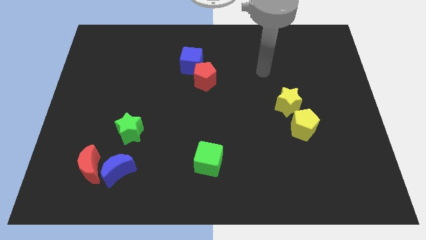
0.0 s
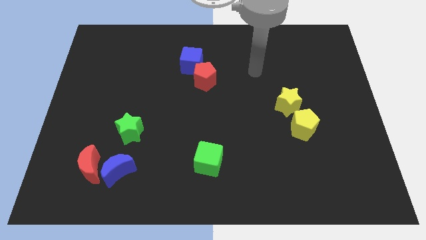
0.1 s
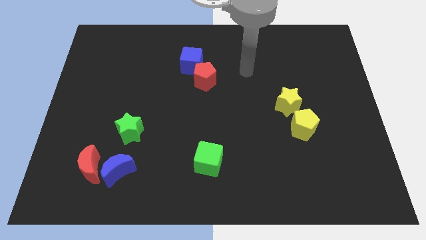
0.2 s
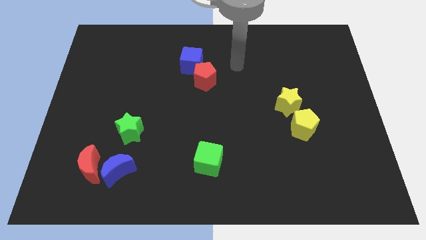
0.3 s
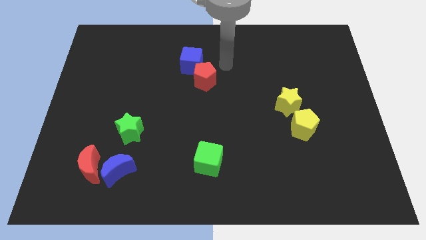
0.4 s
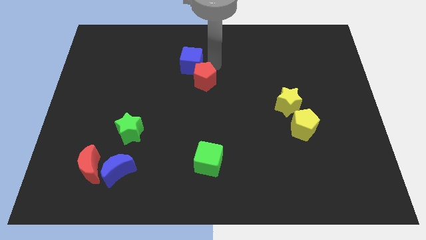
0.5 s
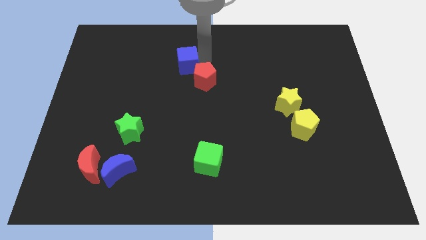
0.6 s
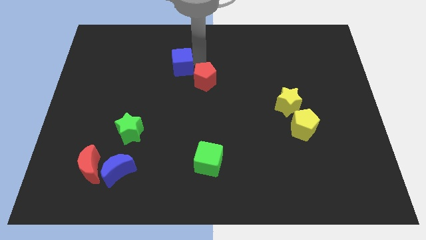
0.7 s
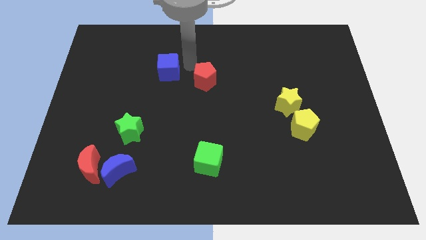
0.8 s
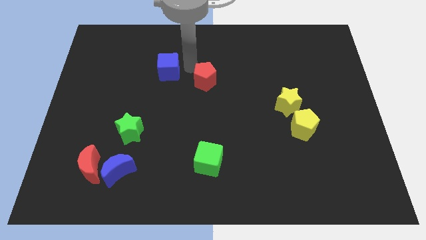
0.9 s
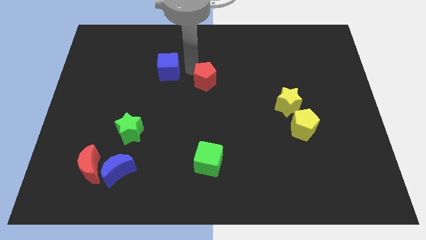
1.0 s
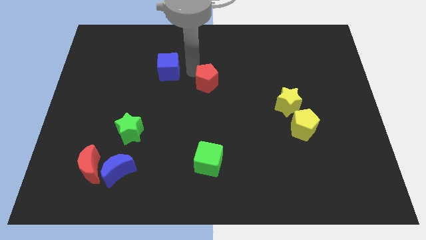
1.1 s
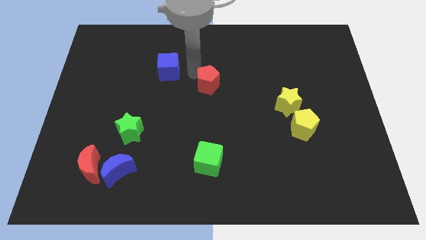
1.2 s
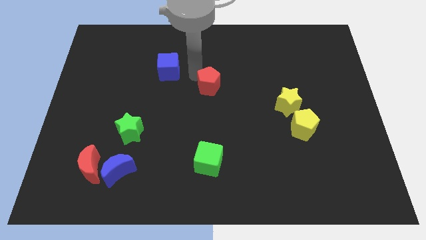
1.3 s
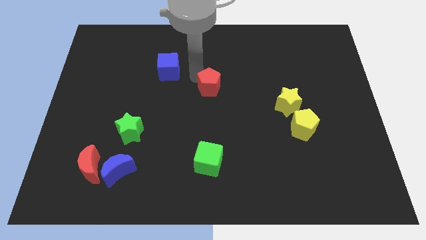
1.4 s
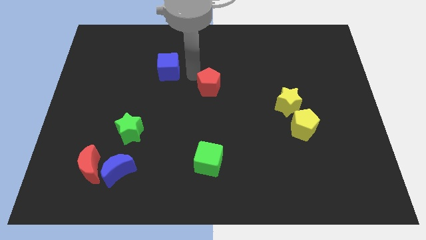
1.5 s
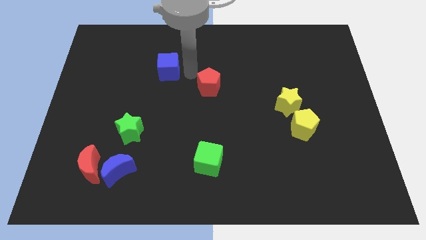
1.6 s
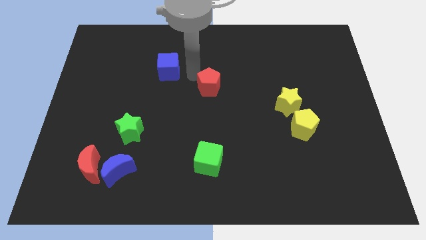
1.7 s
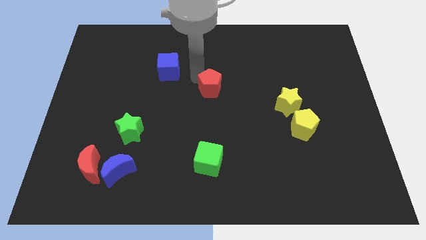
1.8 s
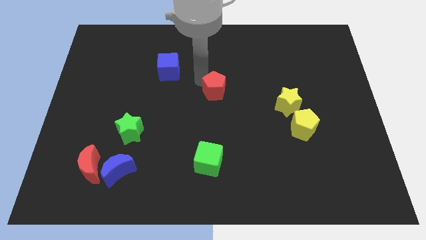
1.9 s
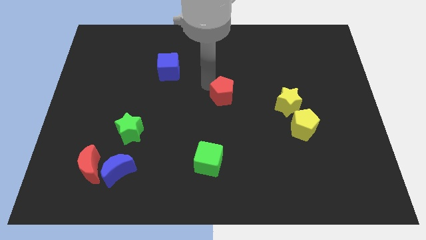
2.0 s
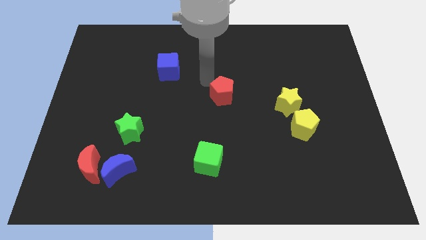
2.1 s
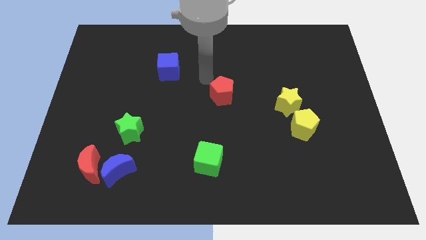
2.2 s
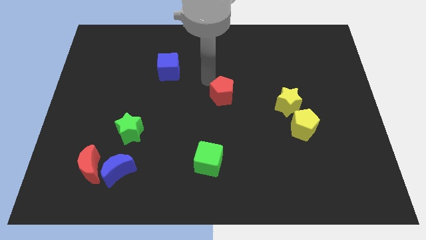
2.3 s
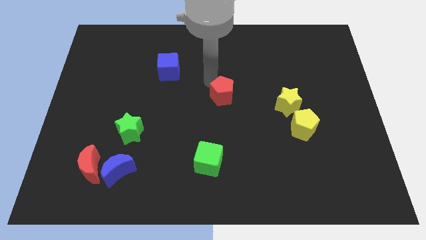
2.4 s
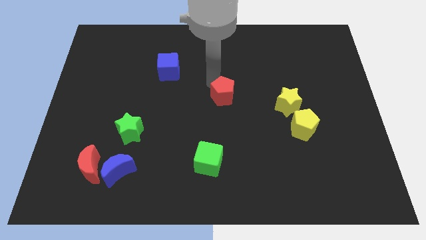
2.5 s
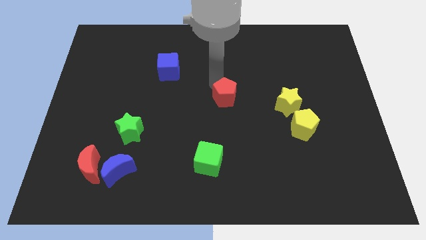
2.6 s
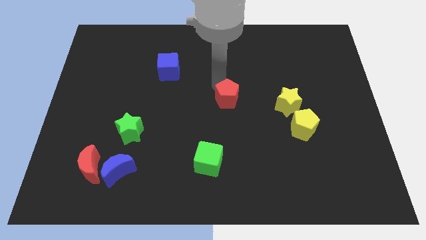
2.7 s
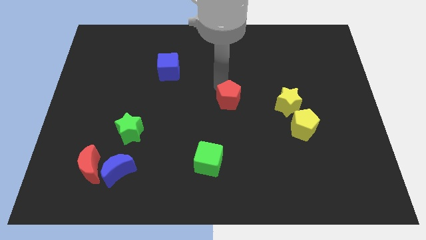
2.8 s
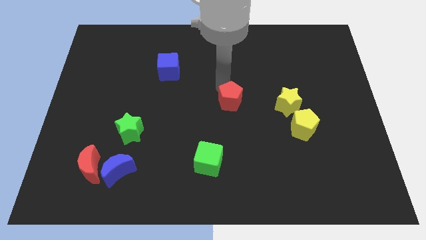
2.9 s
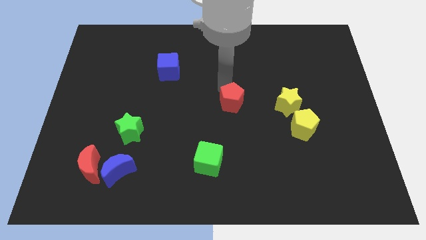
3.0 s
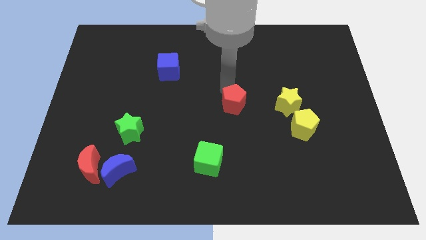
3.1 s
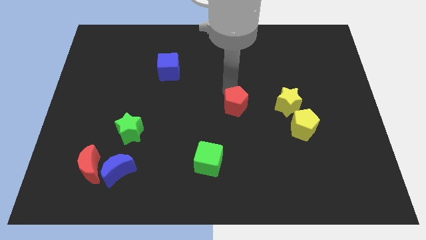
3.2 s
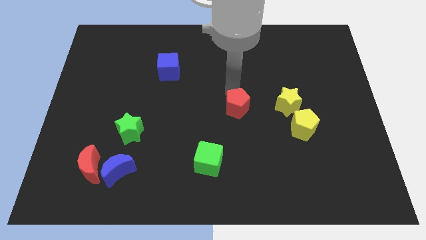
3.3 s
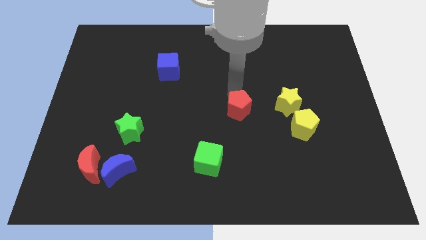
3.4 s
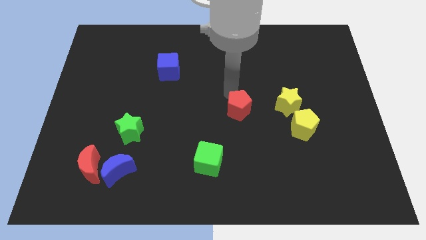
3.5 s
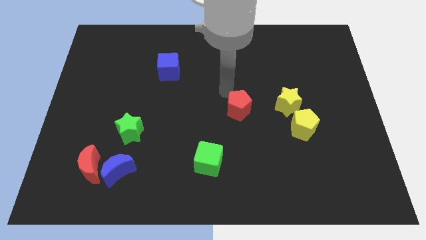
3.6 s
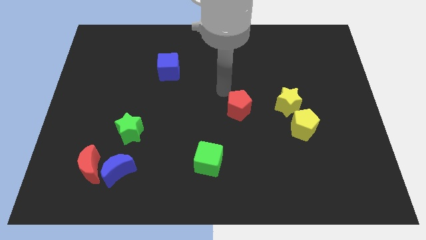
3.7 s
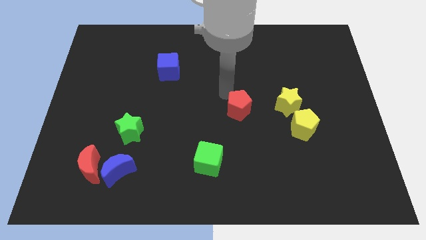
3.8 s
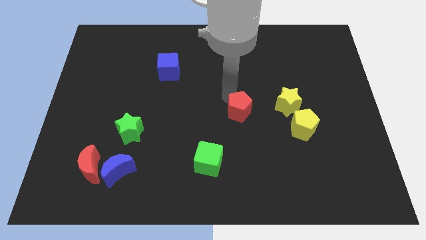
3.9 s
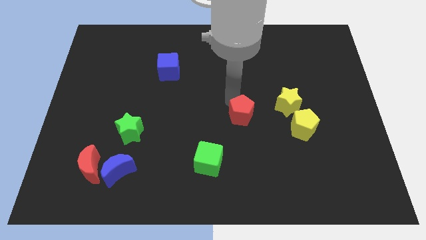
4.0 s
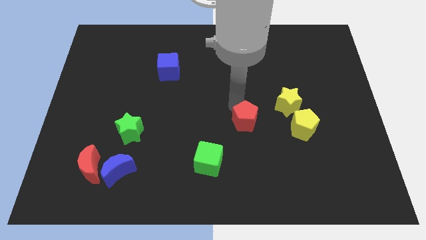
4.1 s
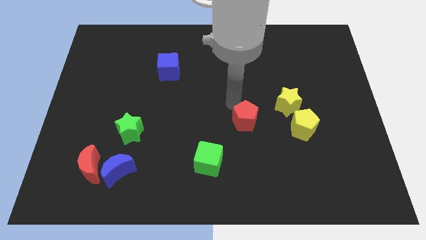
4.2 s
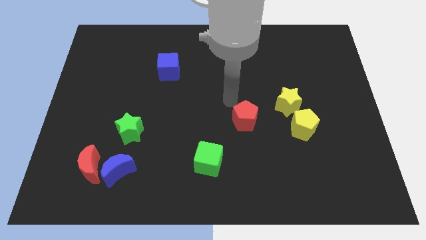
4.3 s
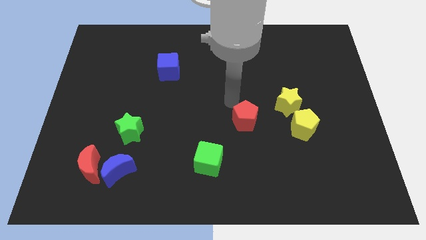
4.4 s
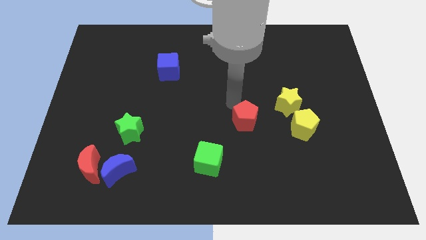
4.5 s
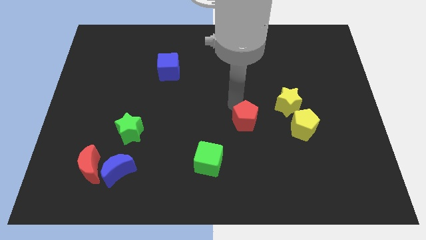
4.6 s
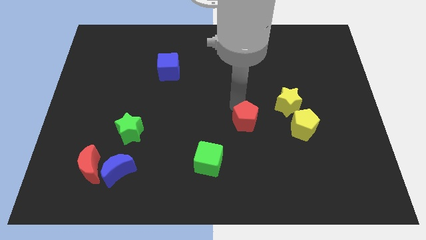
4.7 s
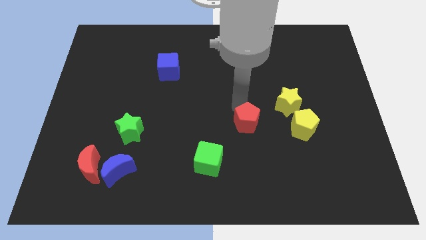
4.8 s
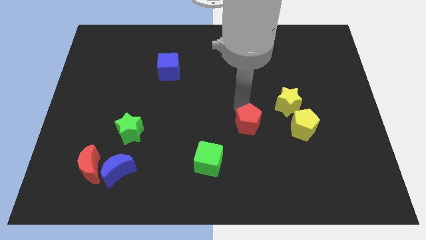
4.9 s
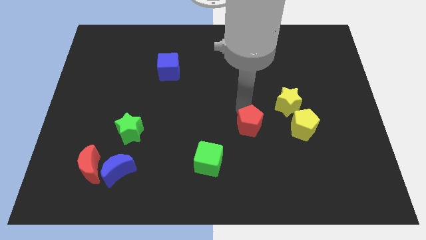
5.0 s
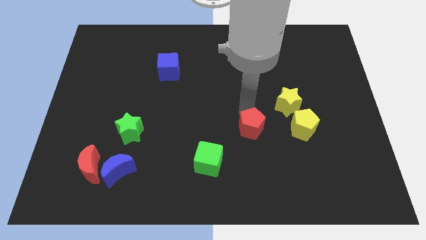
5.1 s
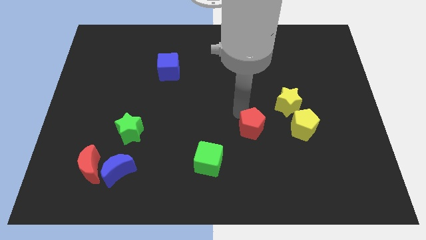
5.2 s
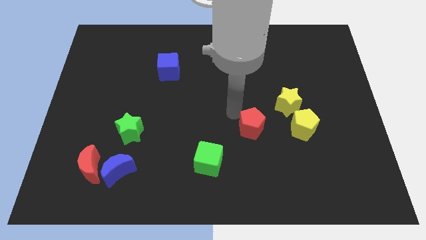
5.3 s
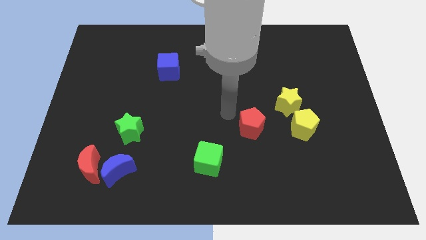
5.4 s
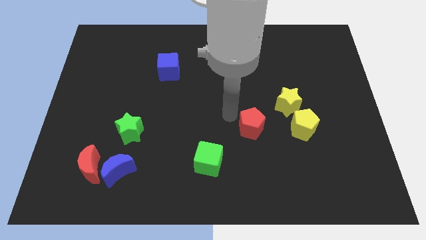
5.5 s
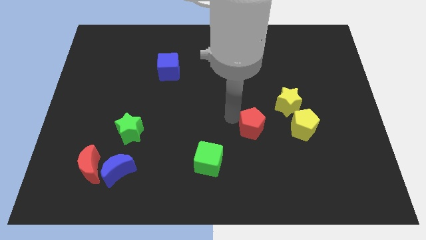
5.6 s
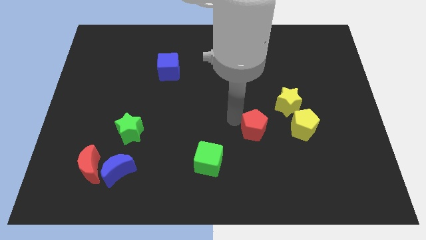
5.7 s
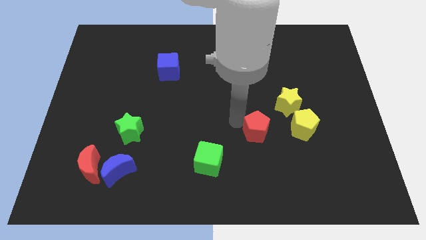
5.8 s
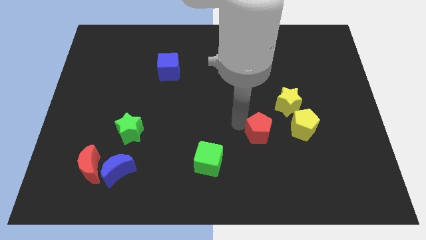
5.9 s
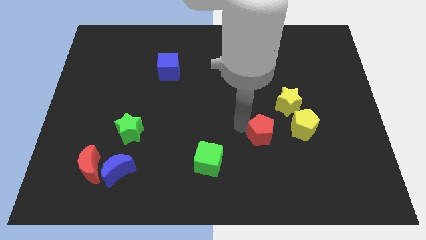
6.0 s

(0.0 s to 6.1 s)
push the red pentagon downwards and right

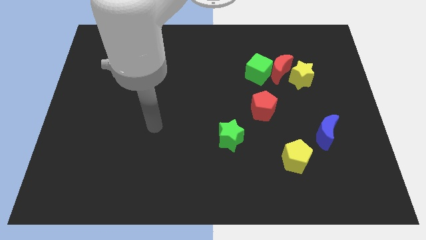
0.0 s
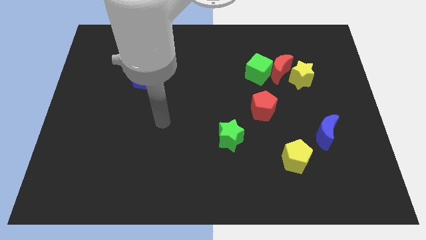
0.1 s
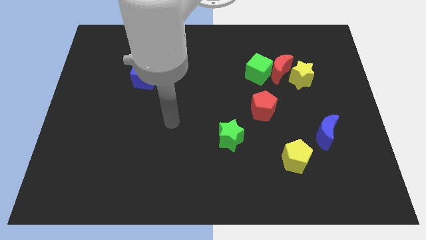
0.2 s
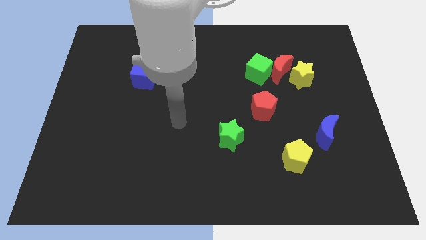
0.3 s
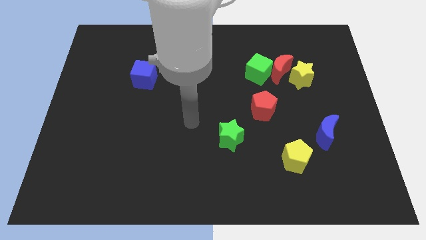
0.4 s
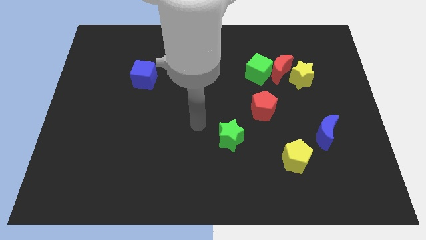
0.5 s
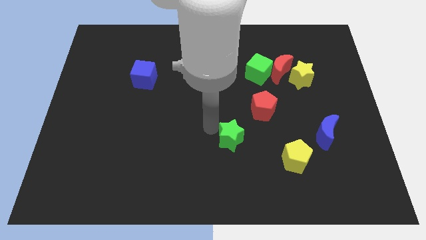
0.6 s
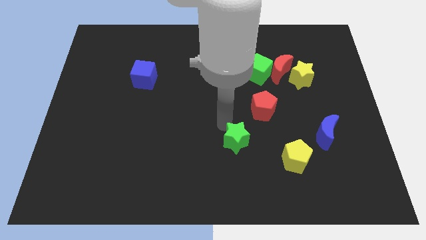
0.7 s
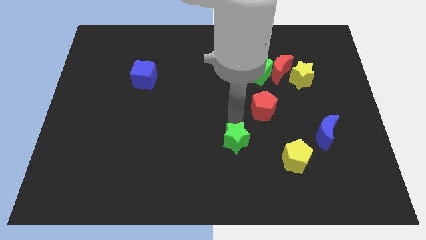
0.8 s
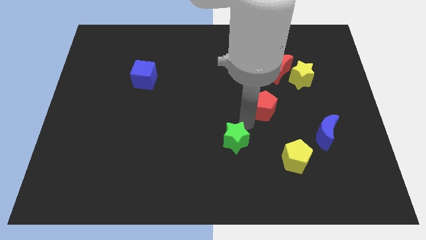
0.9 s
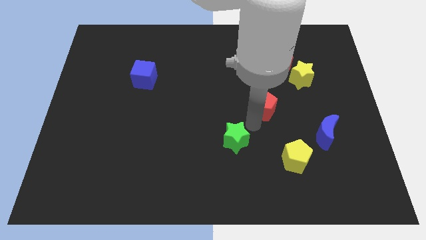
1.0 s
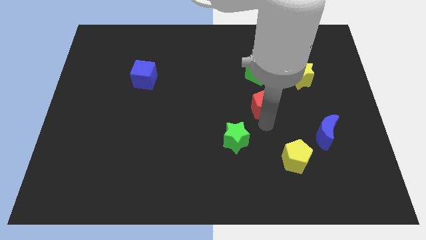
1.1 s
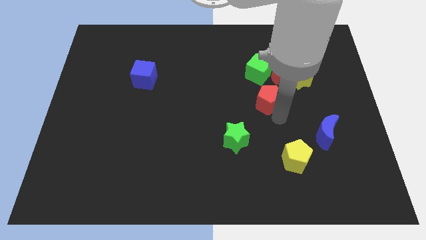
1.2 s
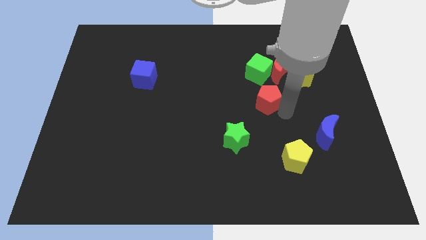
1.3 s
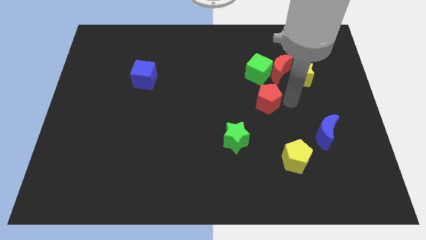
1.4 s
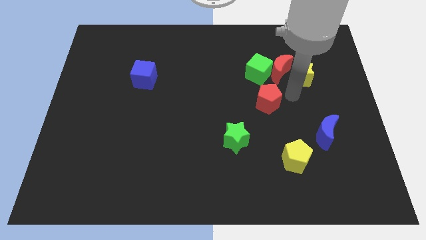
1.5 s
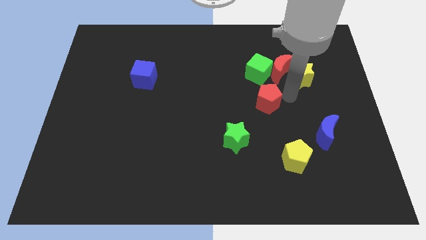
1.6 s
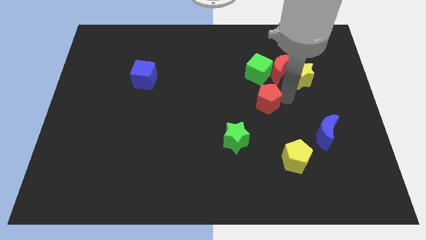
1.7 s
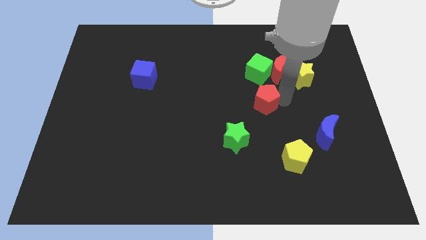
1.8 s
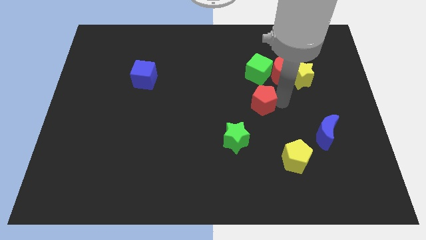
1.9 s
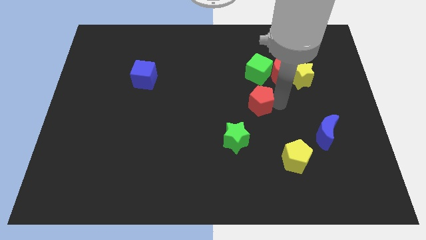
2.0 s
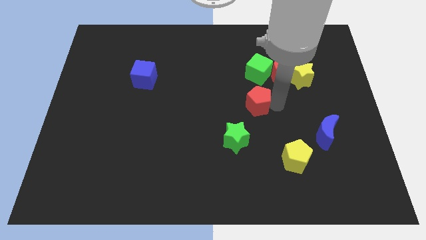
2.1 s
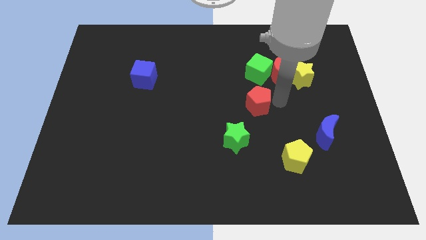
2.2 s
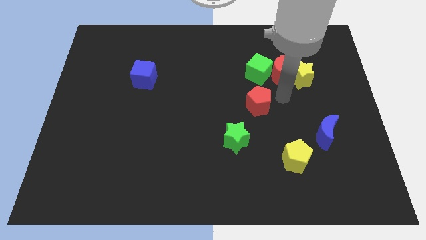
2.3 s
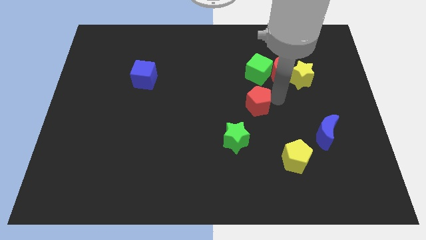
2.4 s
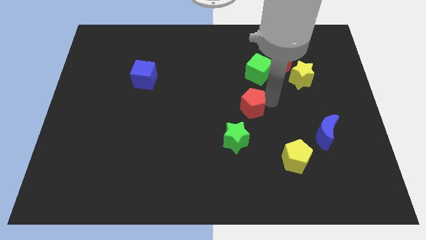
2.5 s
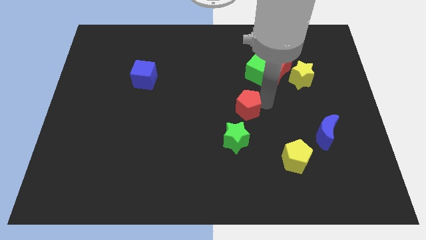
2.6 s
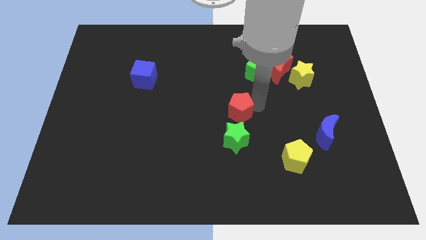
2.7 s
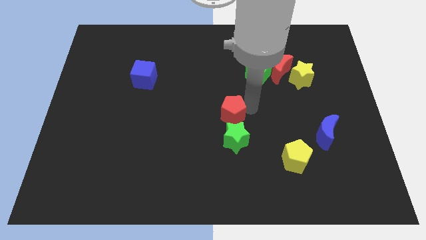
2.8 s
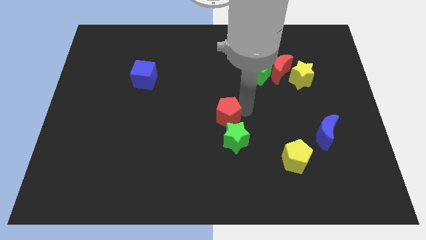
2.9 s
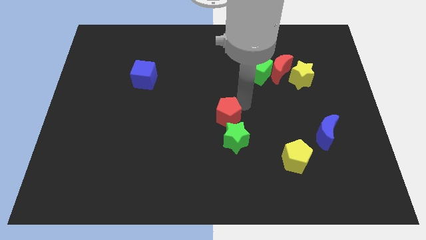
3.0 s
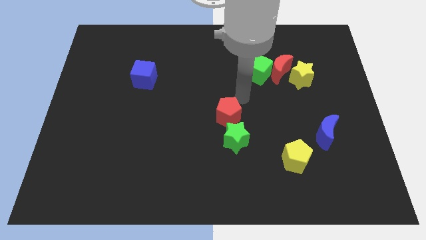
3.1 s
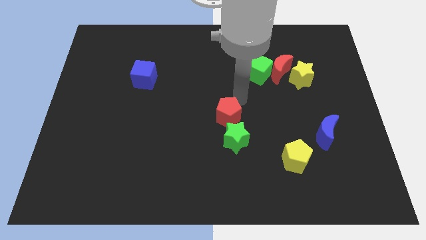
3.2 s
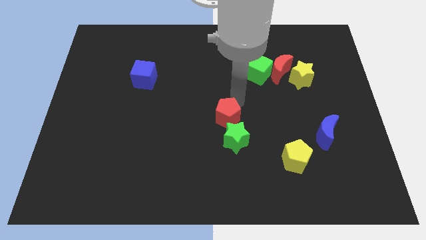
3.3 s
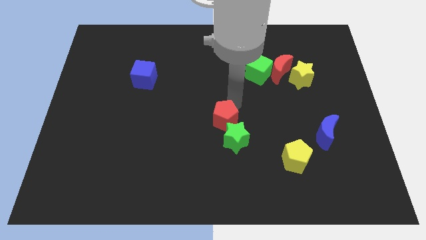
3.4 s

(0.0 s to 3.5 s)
move the red pentagon a little bit diagonally downwards and to the left
